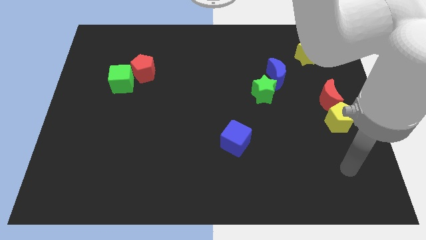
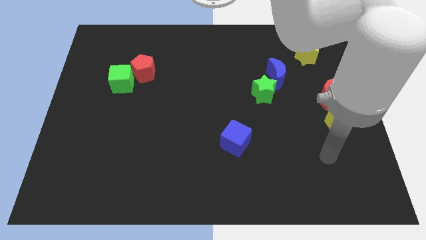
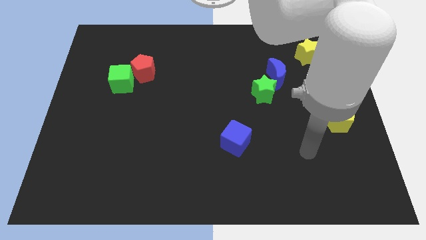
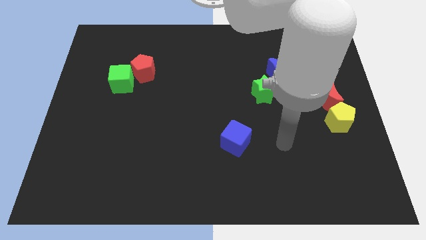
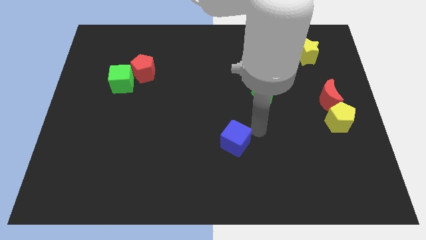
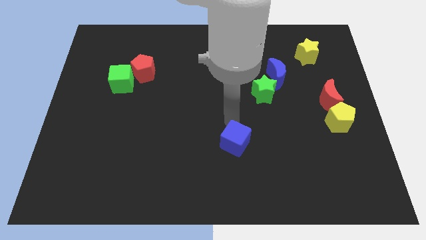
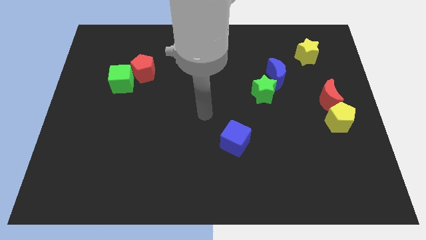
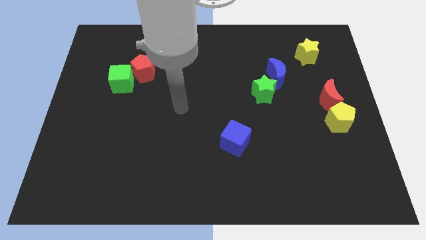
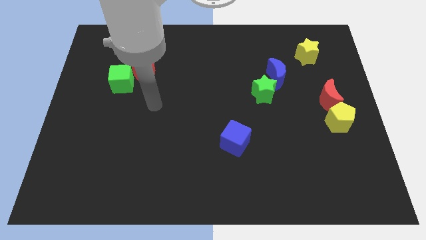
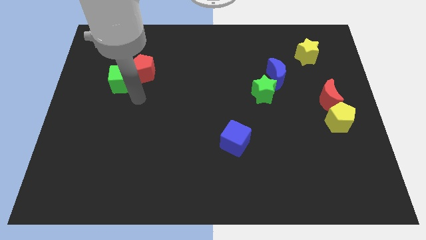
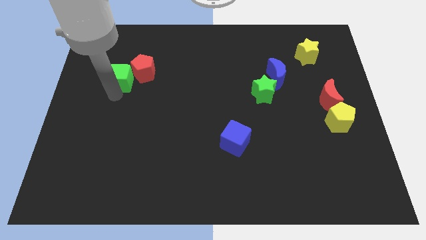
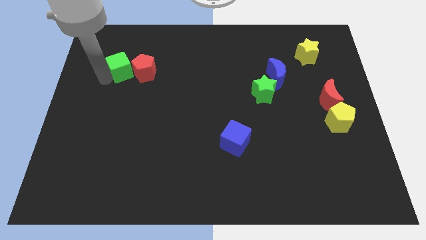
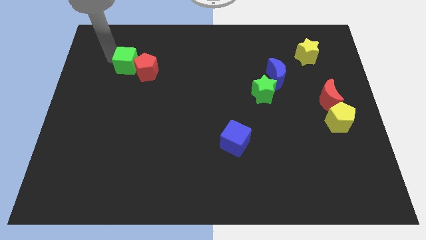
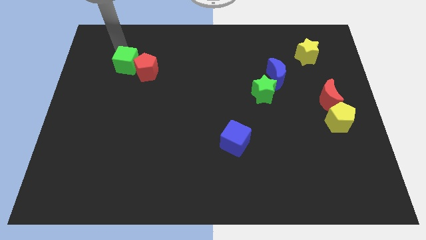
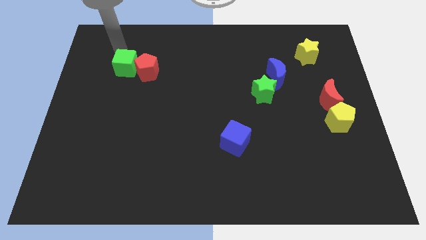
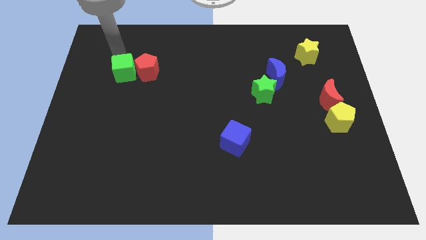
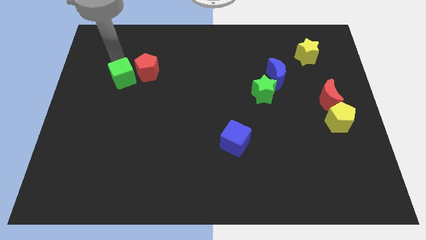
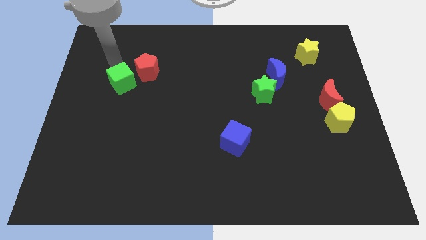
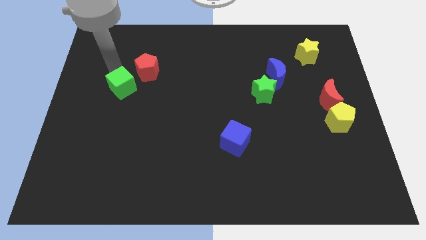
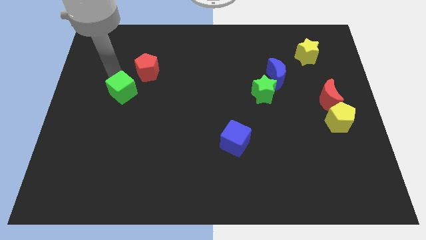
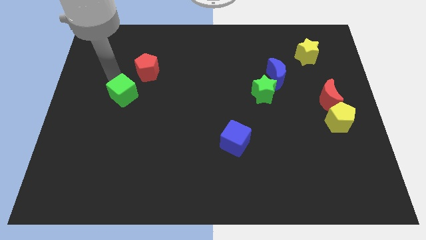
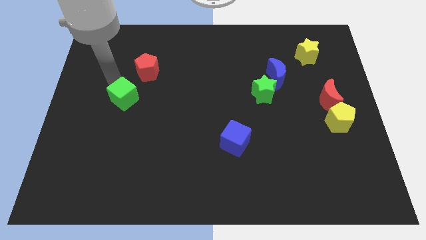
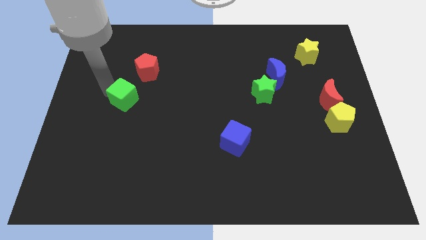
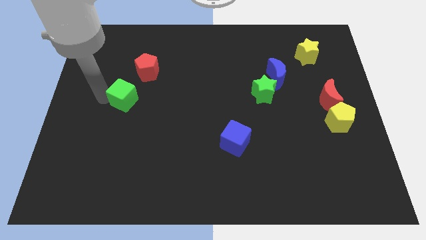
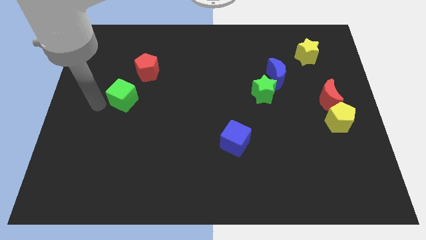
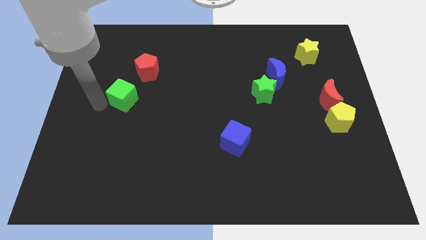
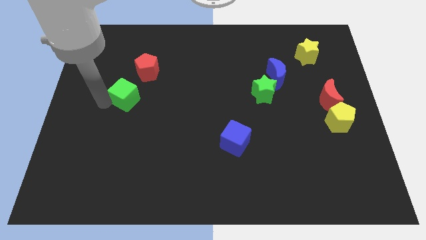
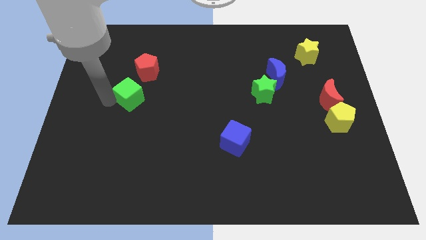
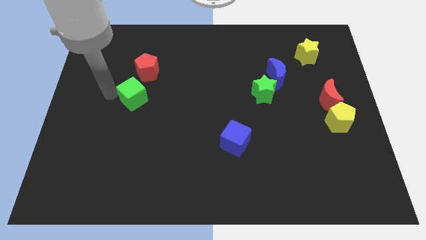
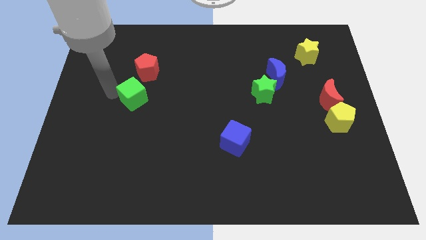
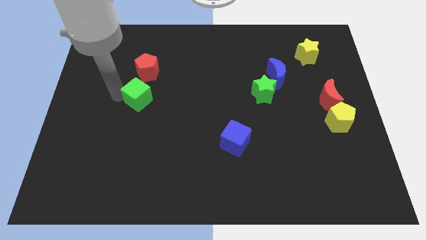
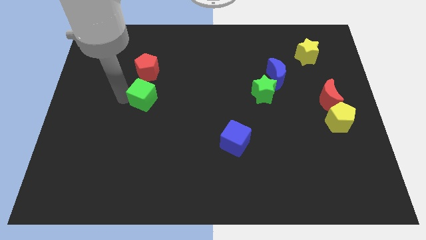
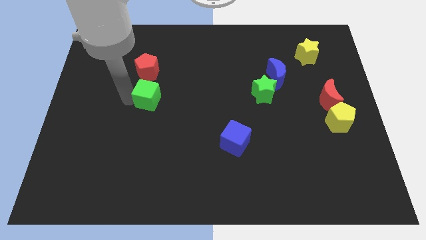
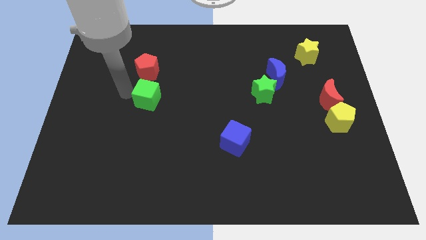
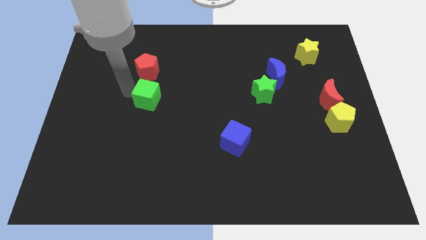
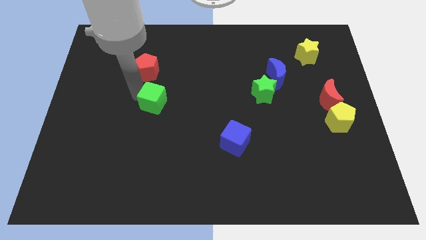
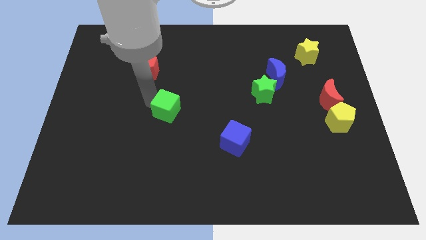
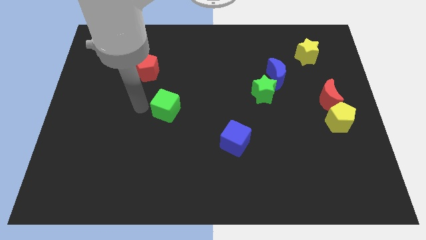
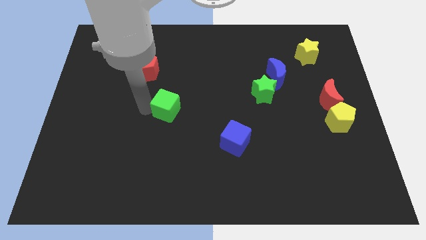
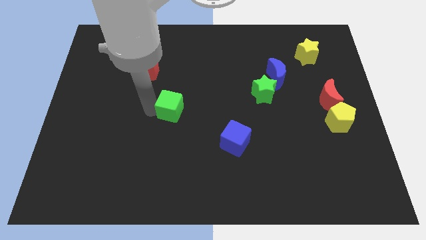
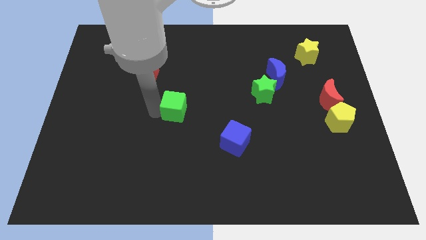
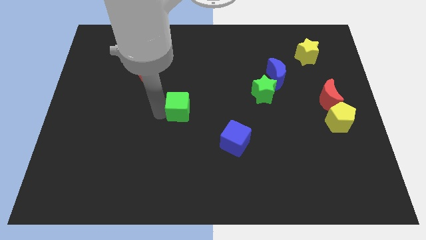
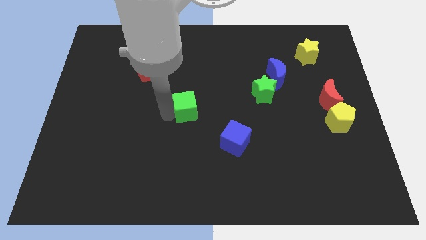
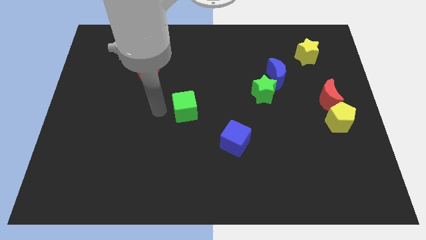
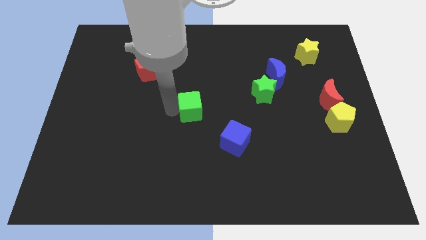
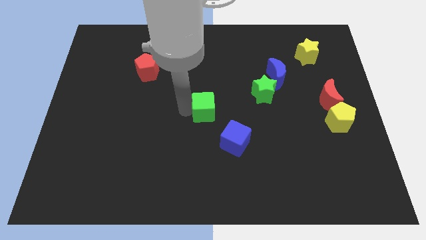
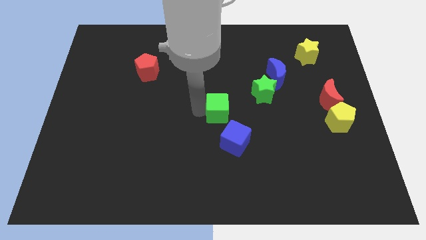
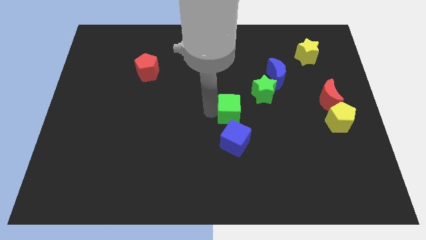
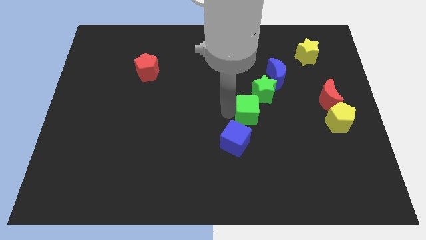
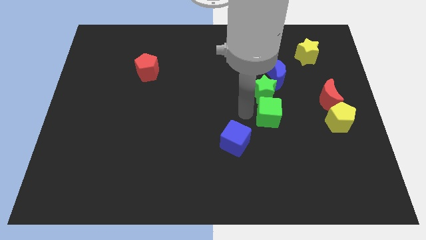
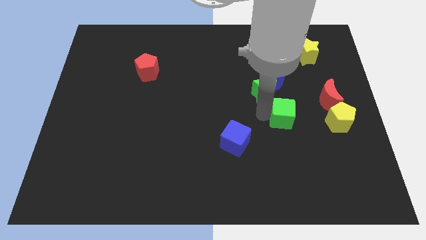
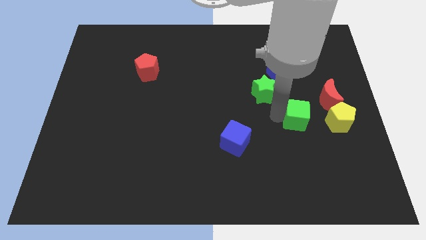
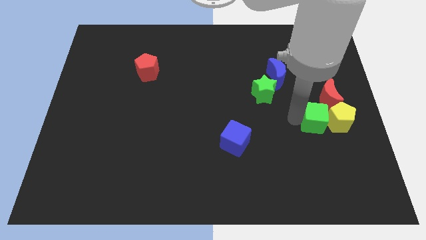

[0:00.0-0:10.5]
push the green cube towards the yellow pentagon

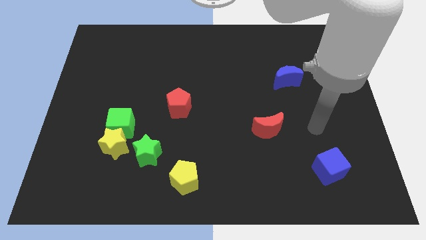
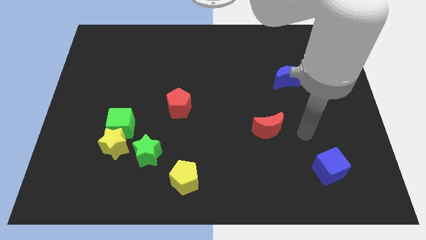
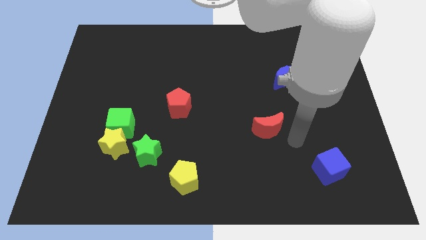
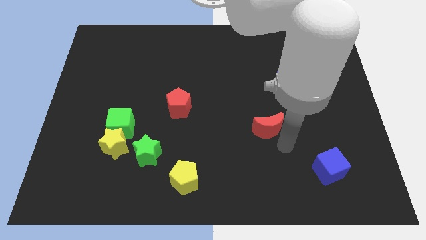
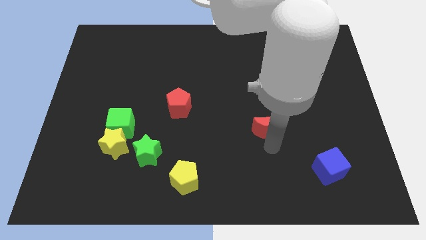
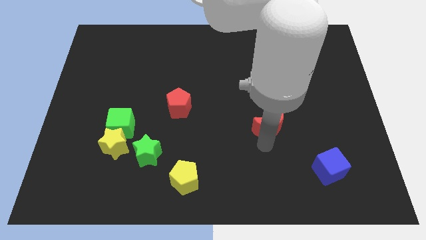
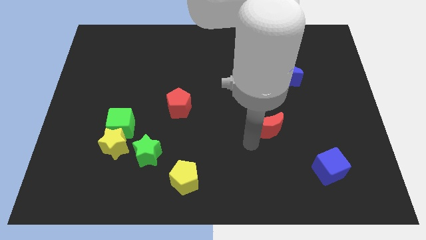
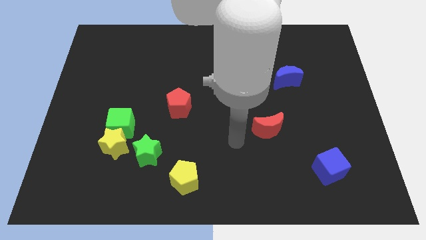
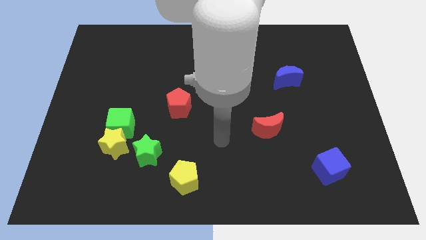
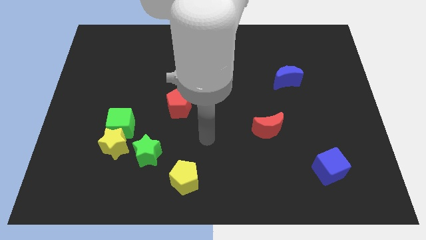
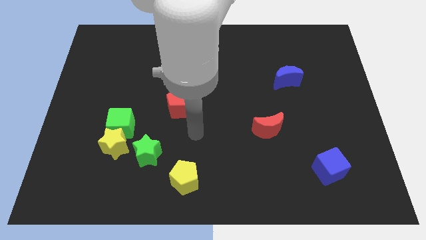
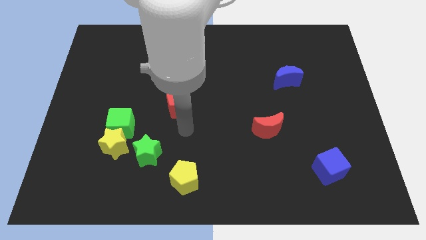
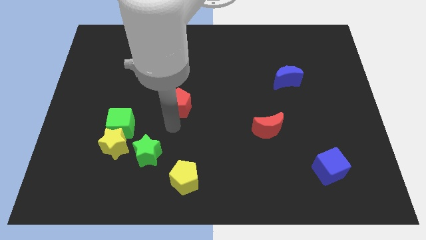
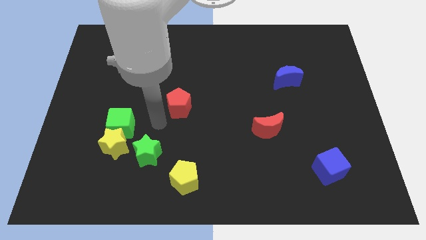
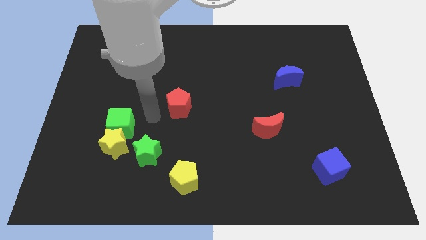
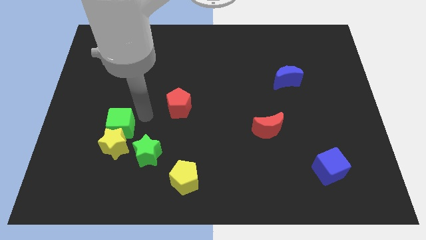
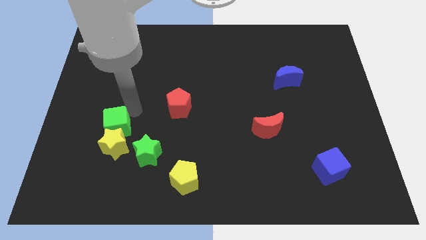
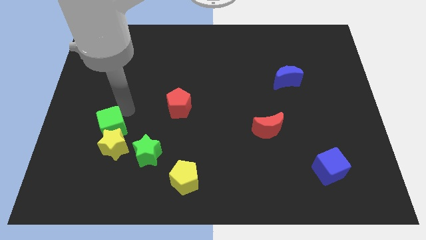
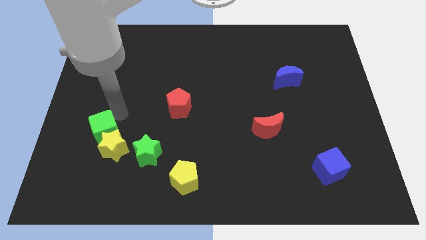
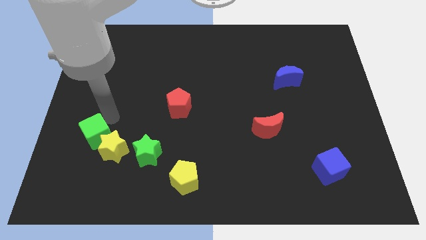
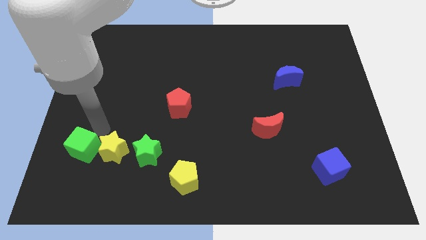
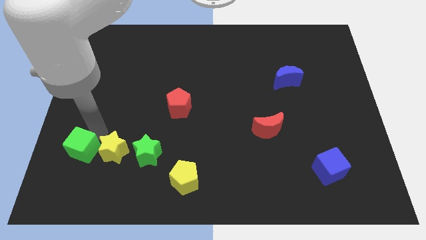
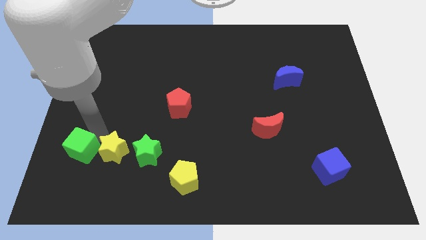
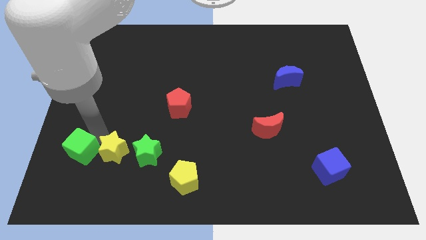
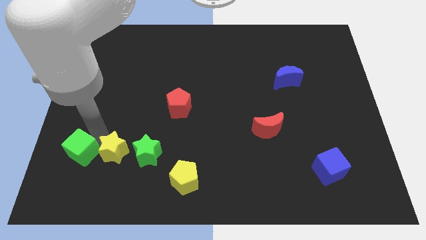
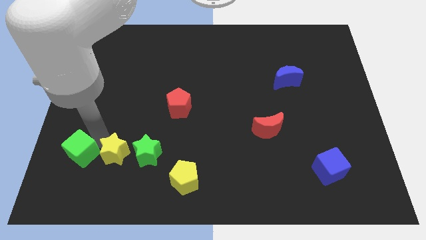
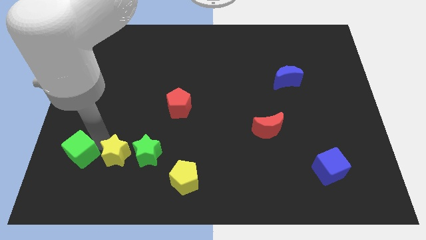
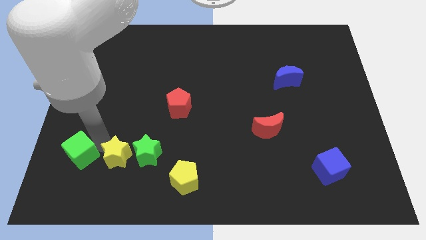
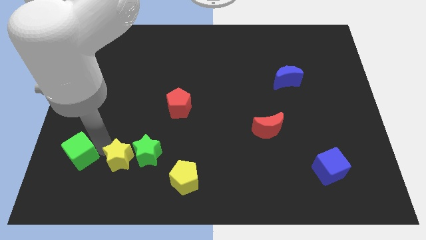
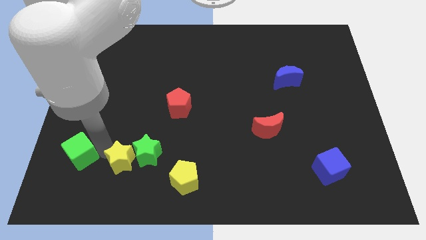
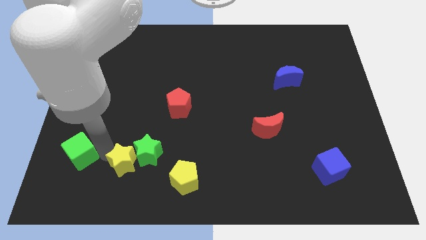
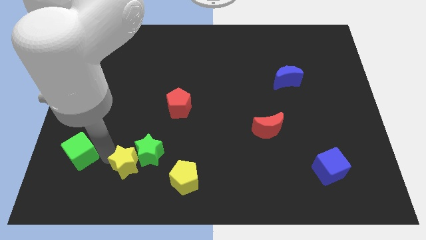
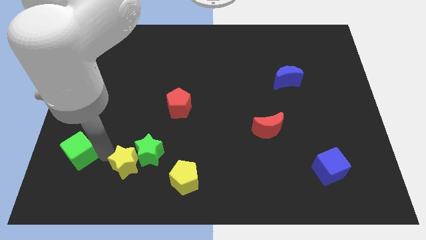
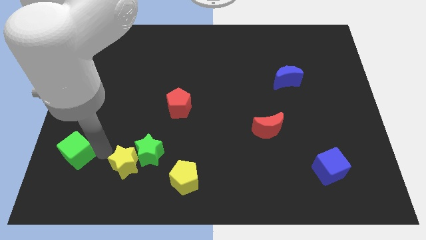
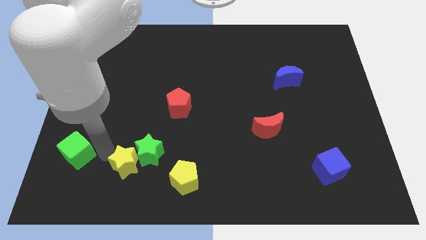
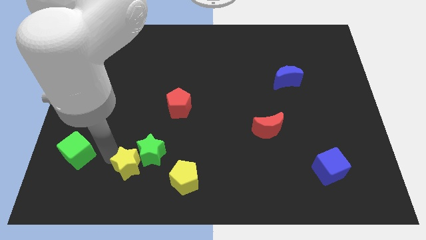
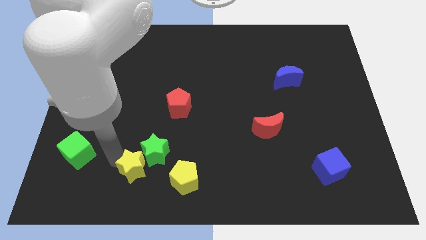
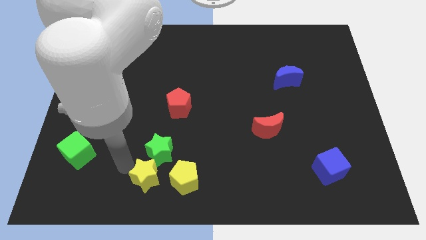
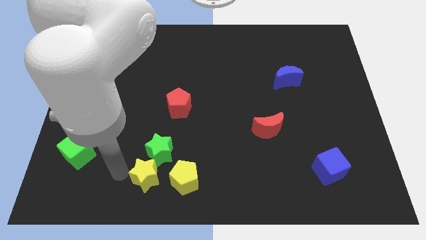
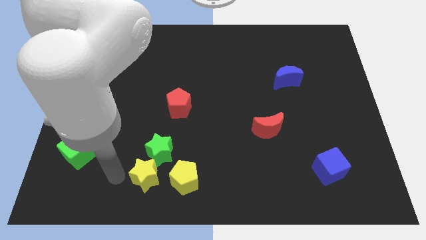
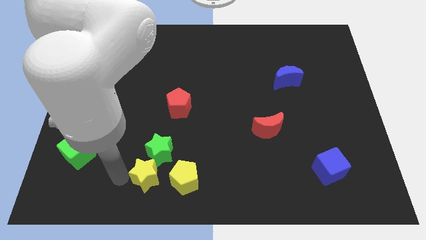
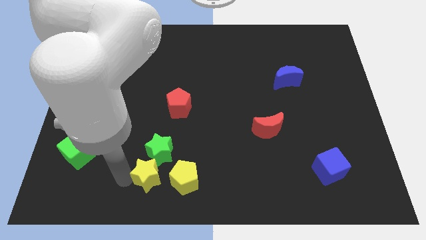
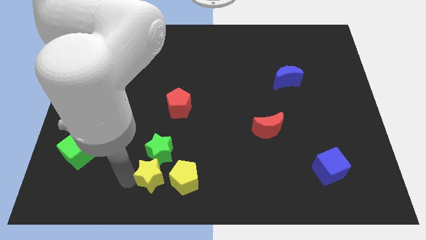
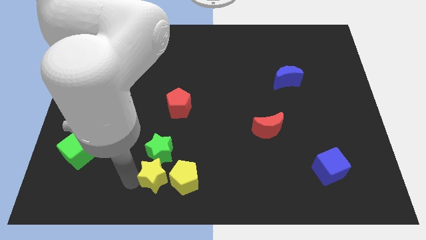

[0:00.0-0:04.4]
move the yellow star next to the yellow pentagon
